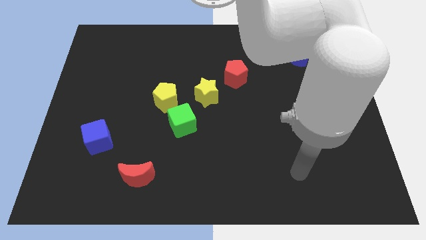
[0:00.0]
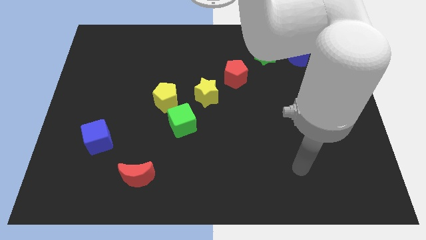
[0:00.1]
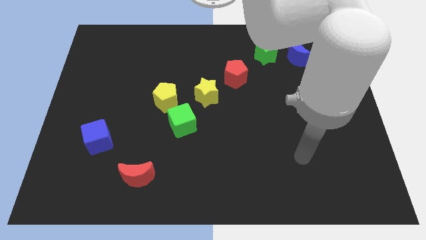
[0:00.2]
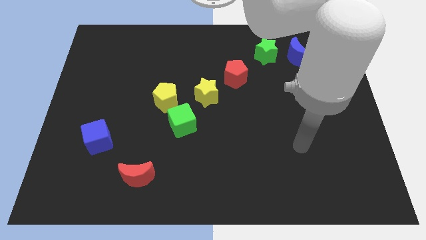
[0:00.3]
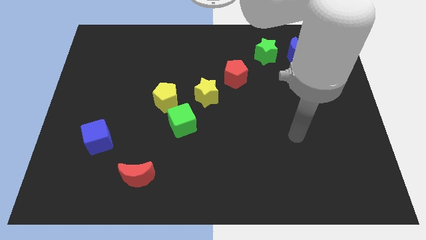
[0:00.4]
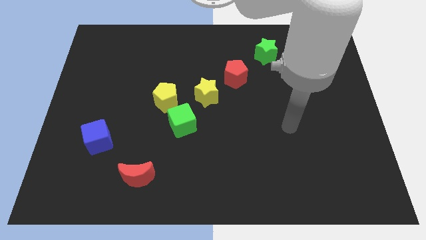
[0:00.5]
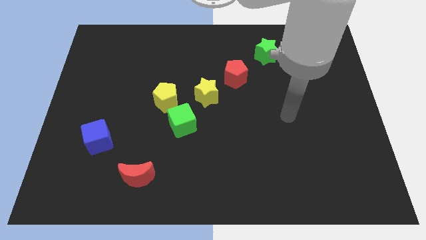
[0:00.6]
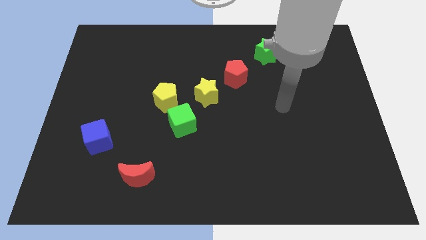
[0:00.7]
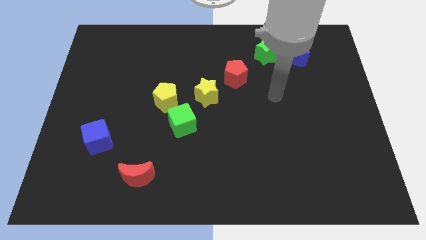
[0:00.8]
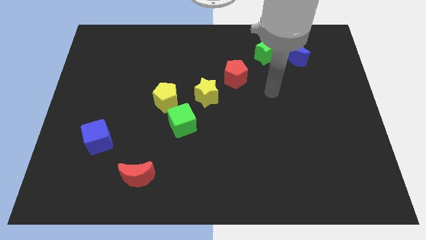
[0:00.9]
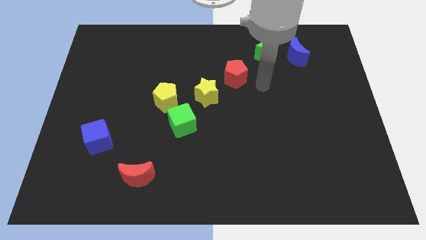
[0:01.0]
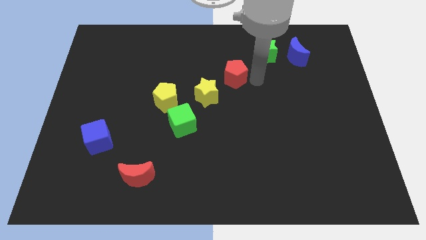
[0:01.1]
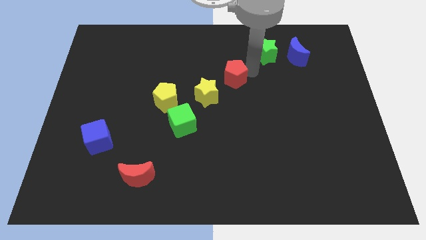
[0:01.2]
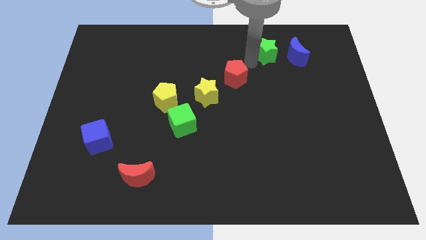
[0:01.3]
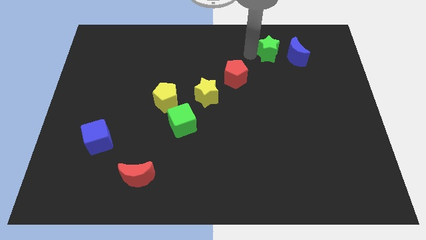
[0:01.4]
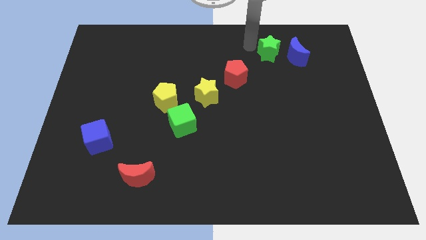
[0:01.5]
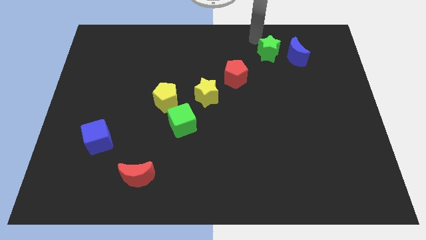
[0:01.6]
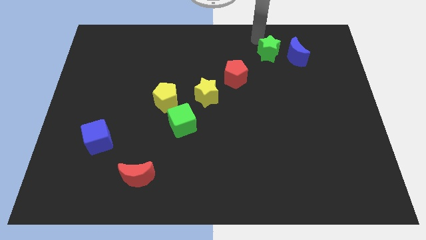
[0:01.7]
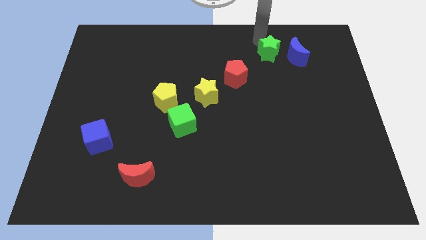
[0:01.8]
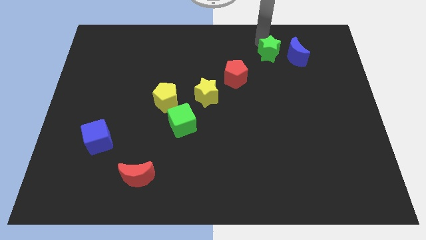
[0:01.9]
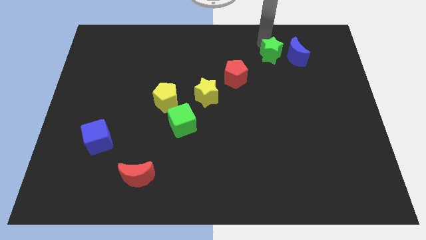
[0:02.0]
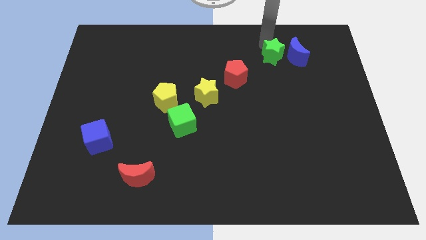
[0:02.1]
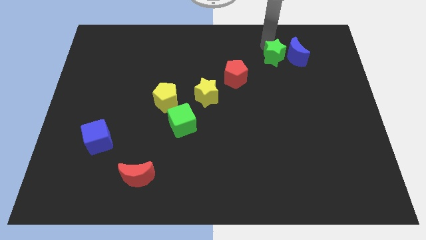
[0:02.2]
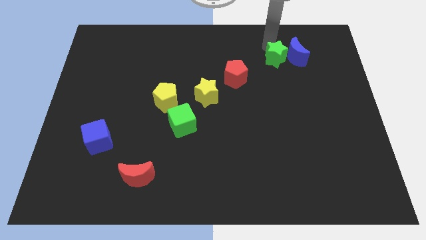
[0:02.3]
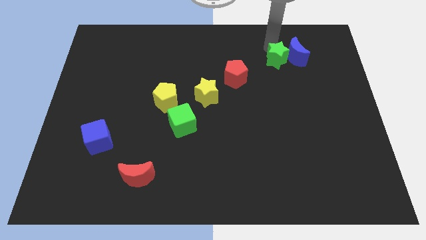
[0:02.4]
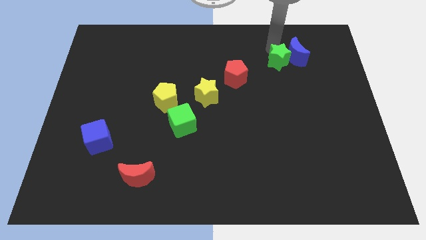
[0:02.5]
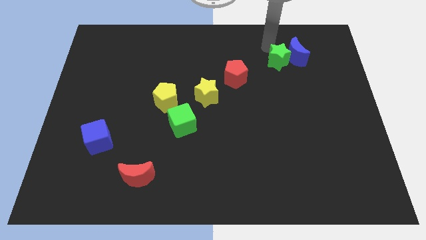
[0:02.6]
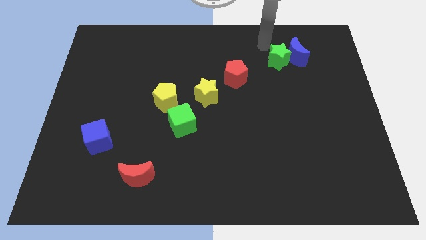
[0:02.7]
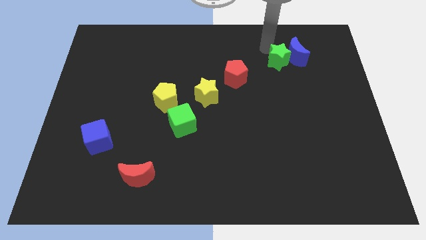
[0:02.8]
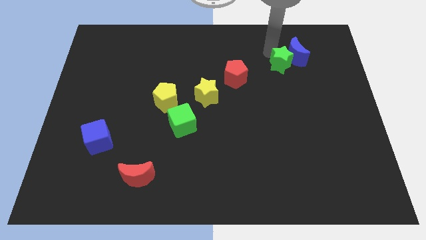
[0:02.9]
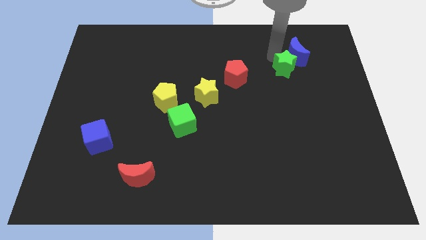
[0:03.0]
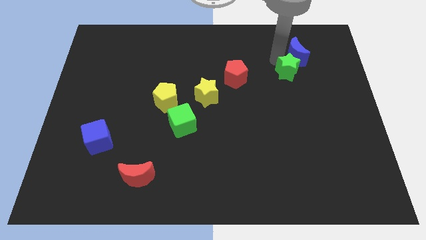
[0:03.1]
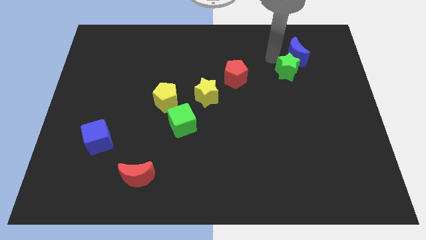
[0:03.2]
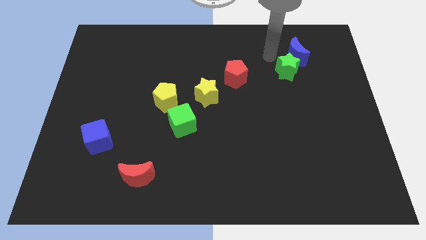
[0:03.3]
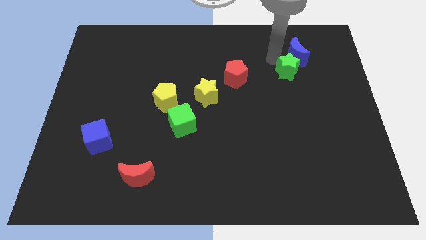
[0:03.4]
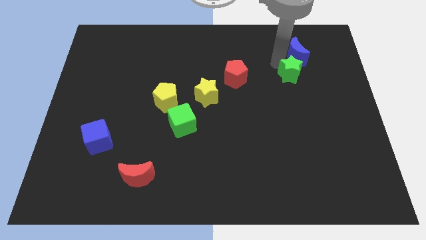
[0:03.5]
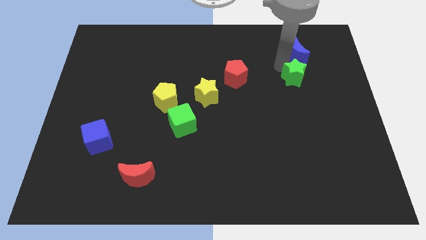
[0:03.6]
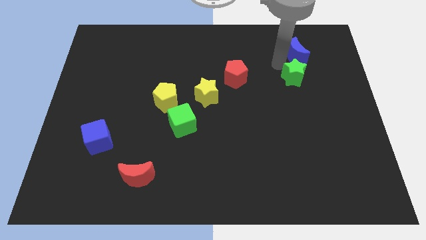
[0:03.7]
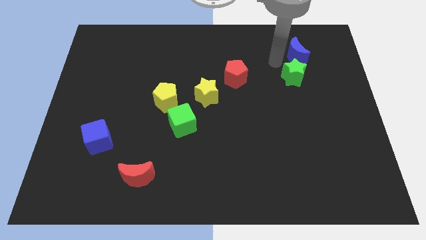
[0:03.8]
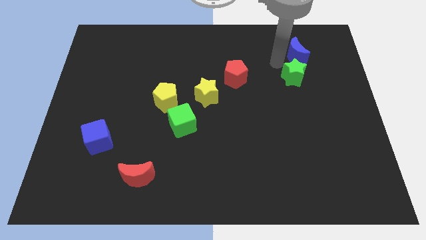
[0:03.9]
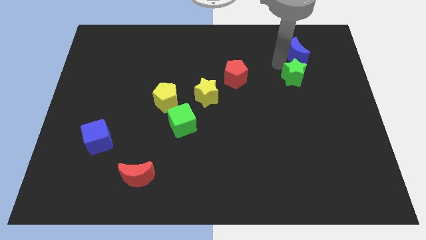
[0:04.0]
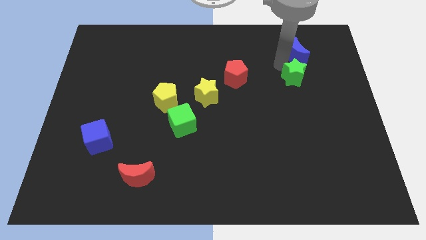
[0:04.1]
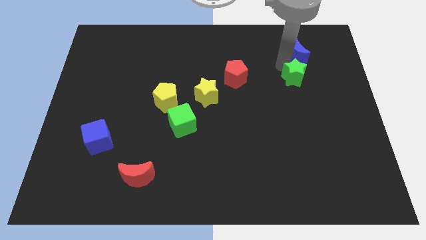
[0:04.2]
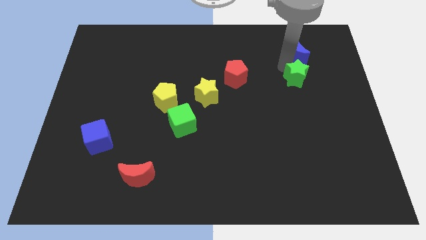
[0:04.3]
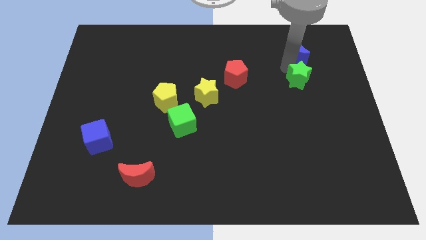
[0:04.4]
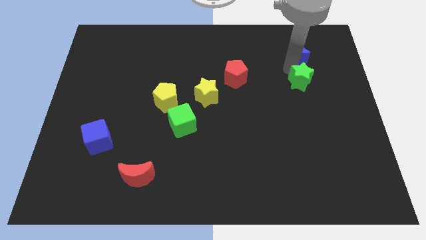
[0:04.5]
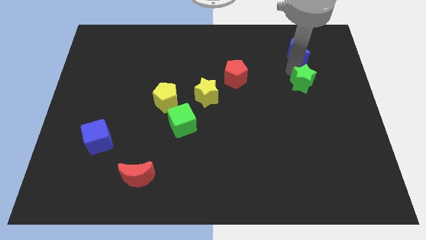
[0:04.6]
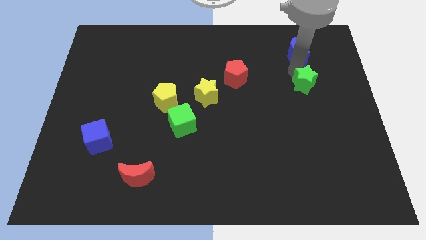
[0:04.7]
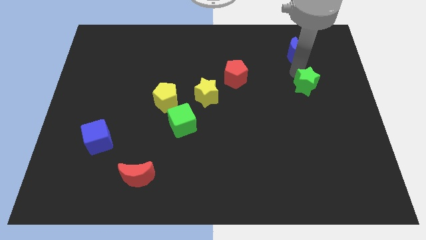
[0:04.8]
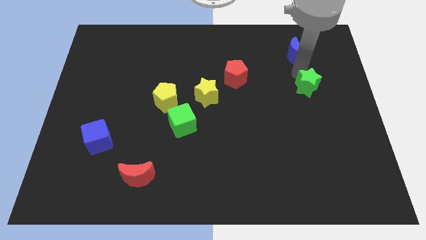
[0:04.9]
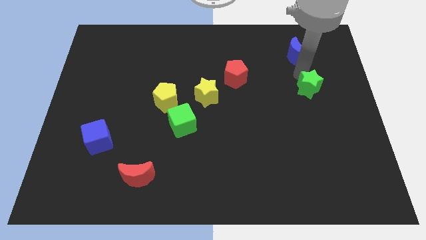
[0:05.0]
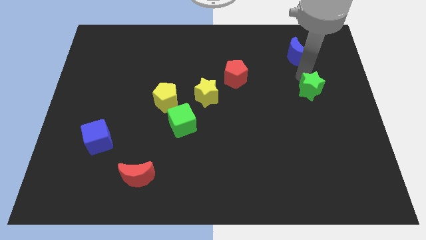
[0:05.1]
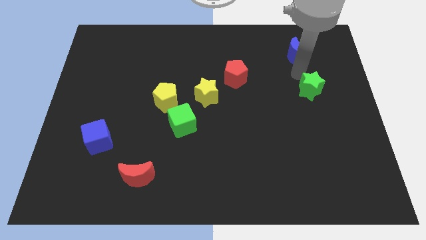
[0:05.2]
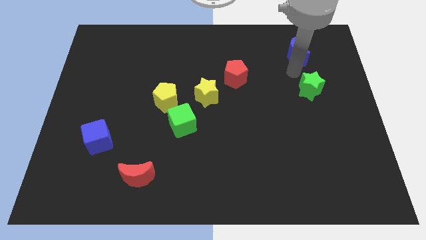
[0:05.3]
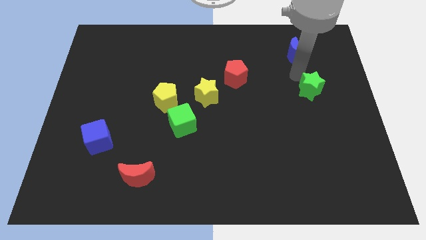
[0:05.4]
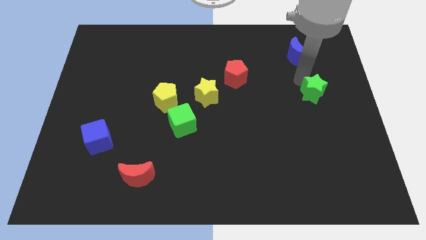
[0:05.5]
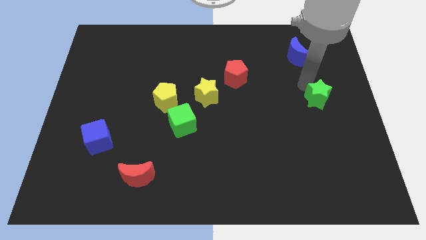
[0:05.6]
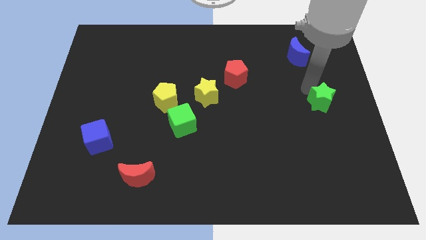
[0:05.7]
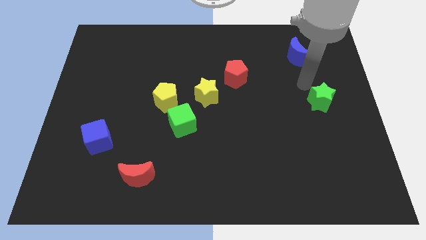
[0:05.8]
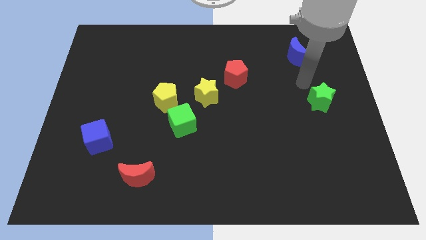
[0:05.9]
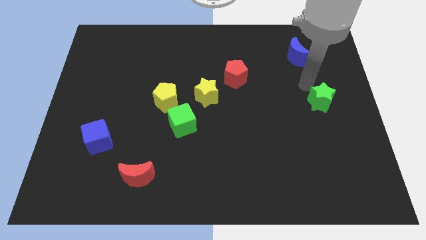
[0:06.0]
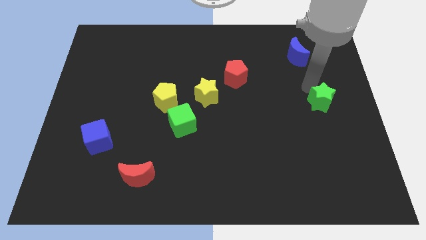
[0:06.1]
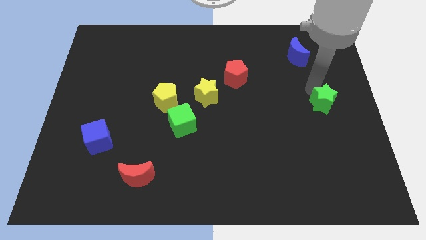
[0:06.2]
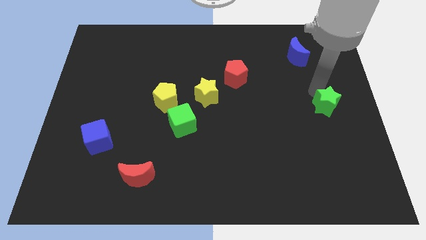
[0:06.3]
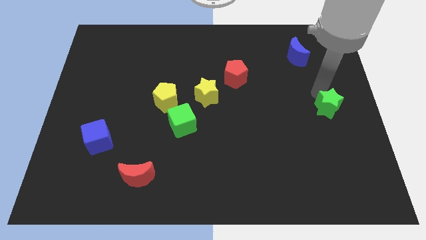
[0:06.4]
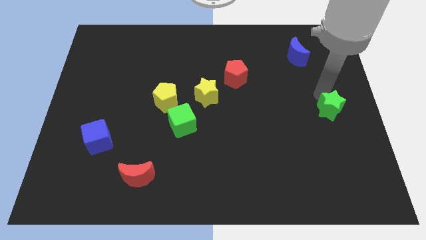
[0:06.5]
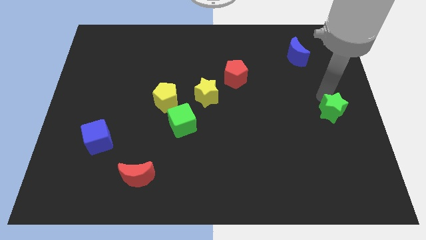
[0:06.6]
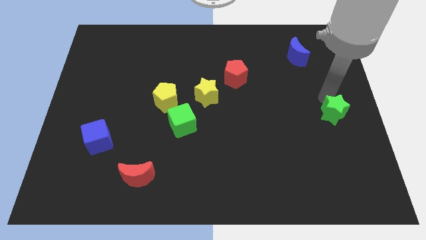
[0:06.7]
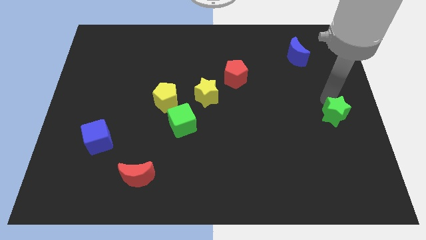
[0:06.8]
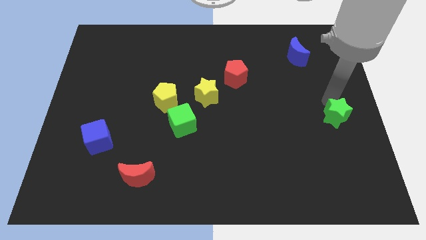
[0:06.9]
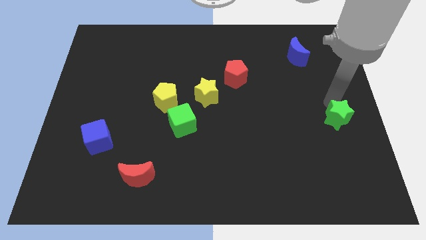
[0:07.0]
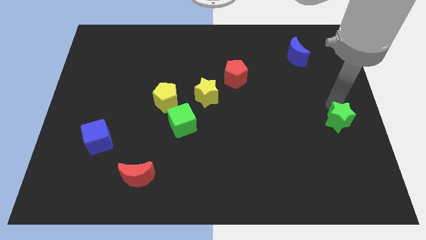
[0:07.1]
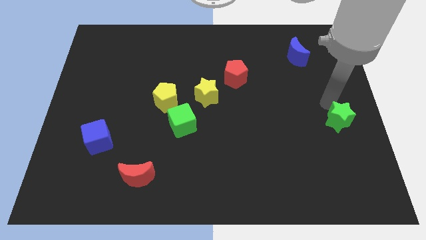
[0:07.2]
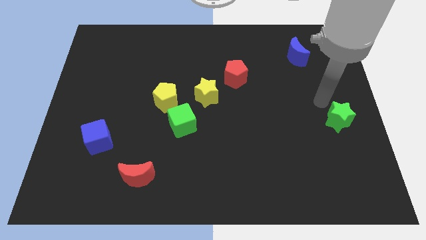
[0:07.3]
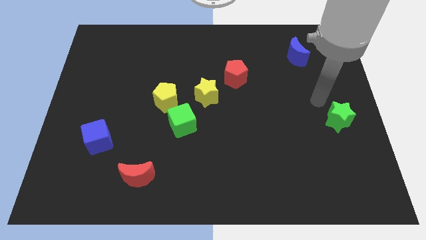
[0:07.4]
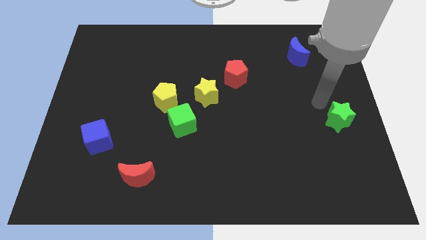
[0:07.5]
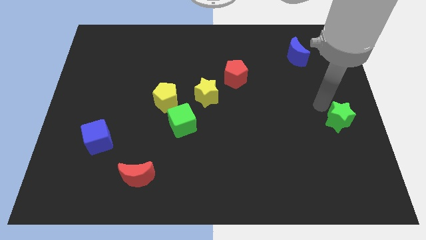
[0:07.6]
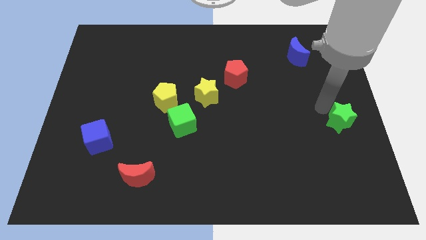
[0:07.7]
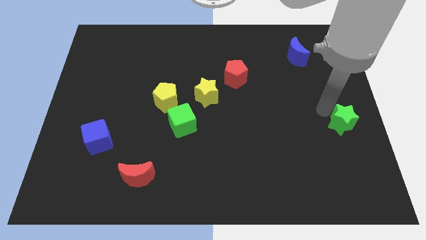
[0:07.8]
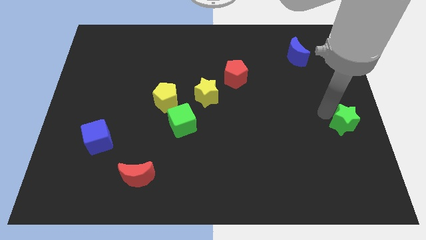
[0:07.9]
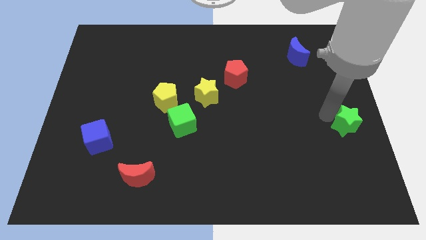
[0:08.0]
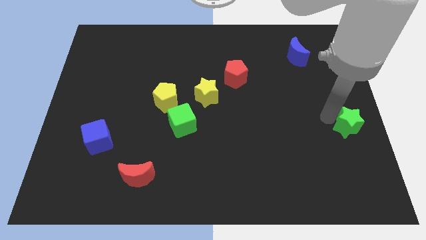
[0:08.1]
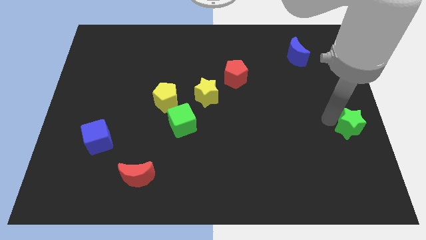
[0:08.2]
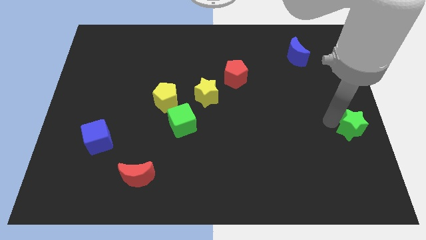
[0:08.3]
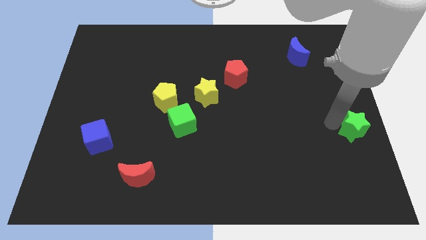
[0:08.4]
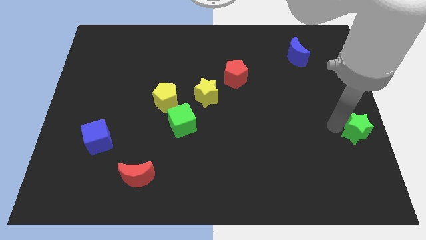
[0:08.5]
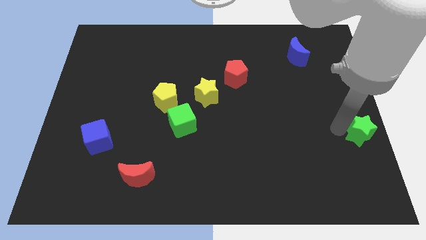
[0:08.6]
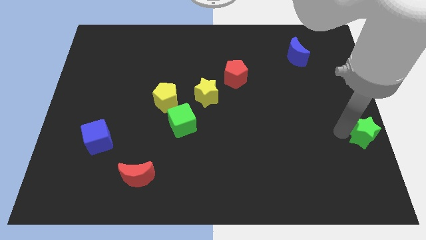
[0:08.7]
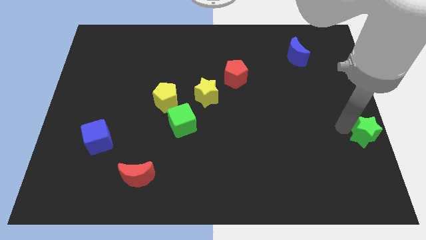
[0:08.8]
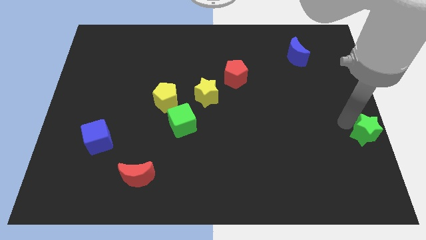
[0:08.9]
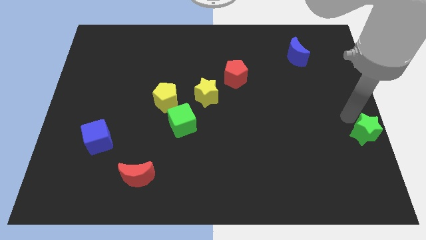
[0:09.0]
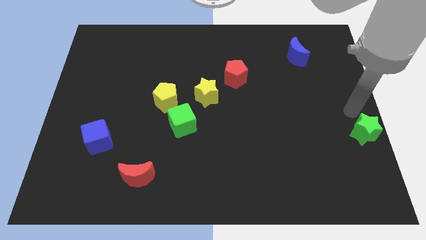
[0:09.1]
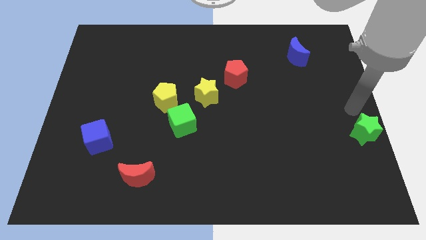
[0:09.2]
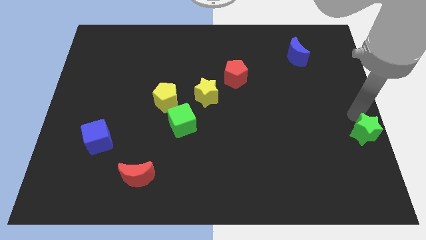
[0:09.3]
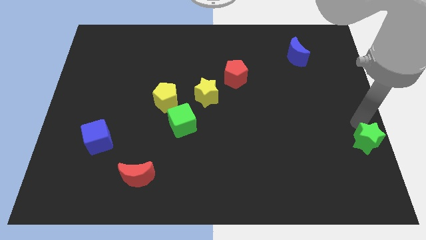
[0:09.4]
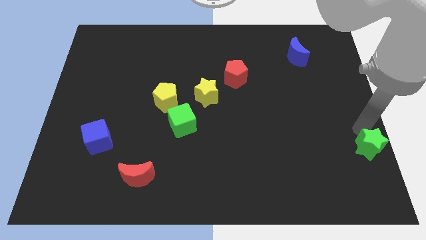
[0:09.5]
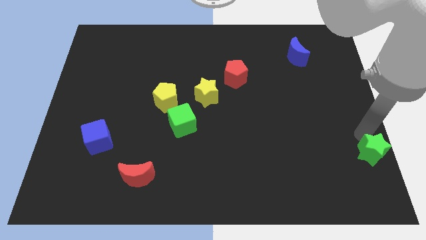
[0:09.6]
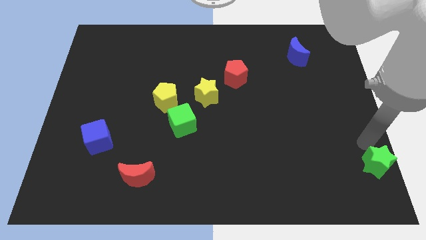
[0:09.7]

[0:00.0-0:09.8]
put the green star to the bottom right corner
